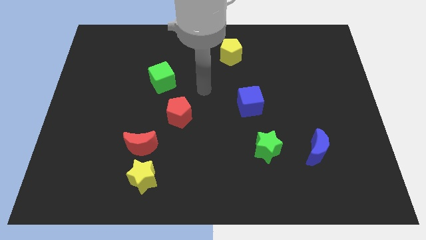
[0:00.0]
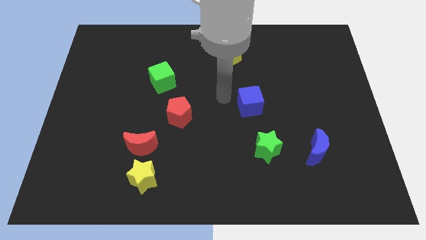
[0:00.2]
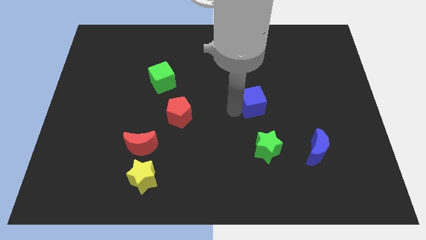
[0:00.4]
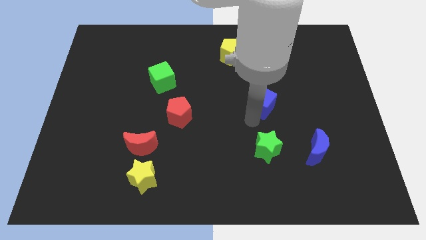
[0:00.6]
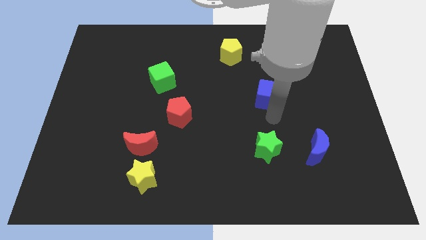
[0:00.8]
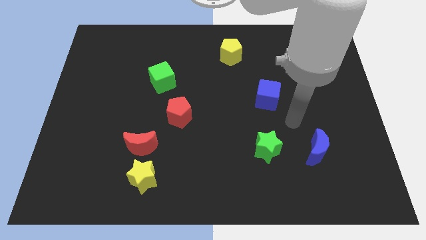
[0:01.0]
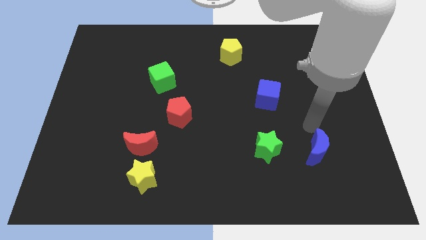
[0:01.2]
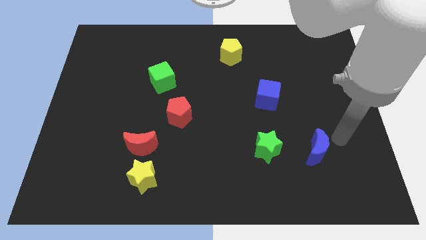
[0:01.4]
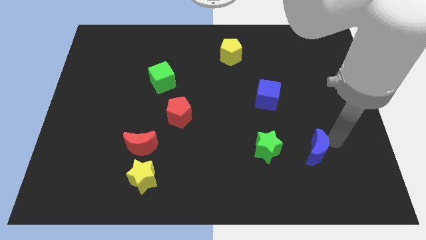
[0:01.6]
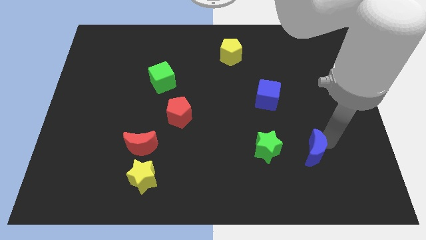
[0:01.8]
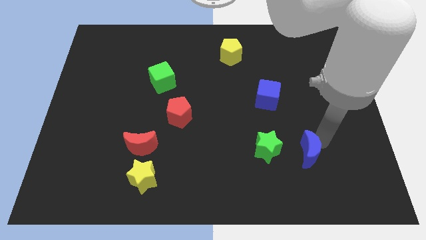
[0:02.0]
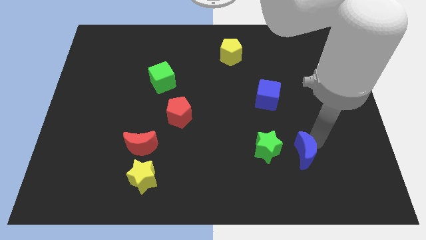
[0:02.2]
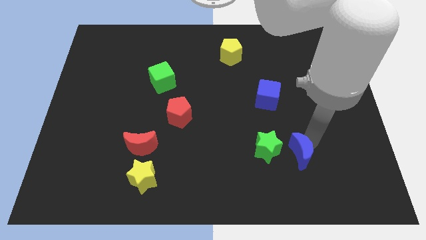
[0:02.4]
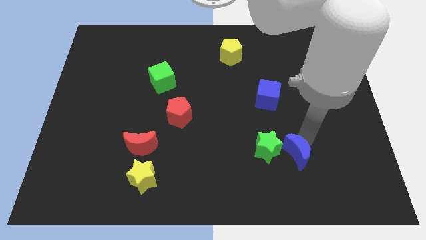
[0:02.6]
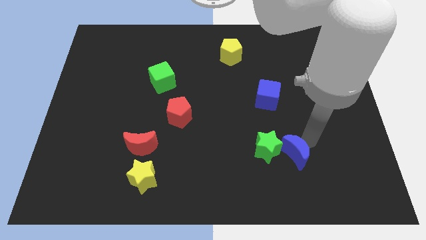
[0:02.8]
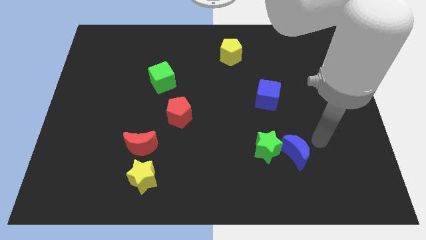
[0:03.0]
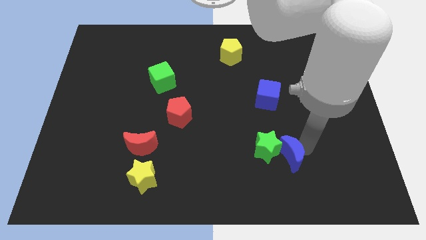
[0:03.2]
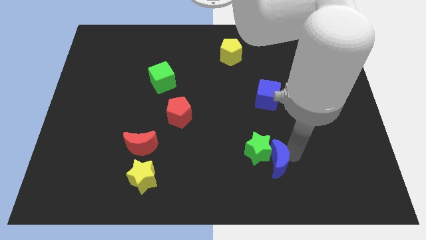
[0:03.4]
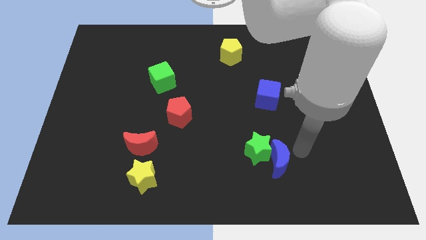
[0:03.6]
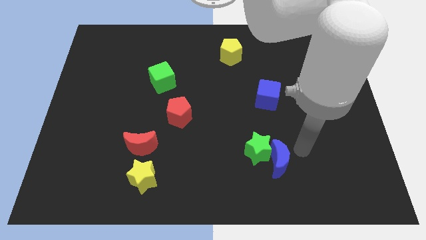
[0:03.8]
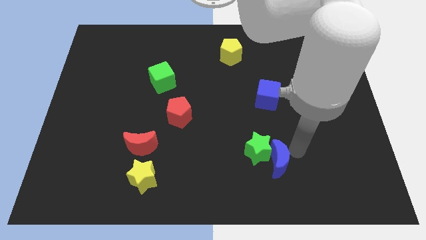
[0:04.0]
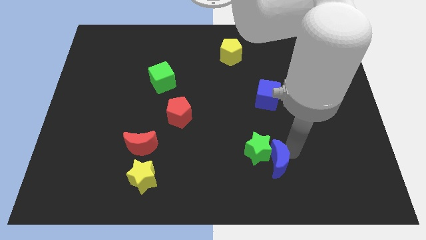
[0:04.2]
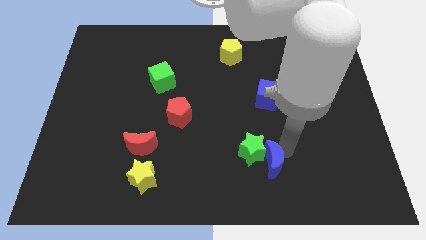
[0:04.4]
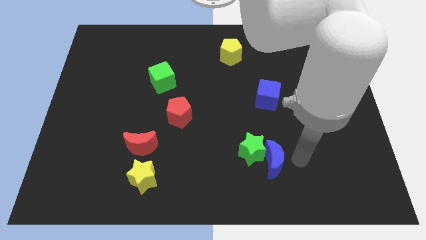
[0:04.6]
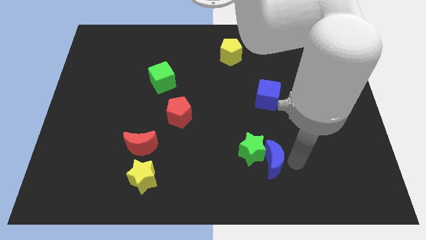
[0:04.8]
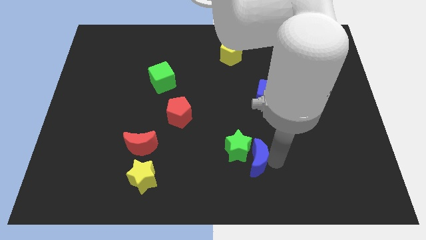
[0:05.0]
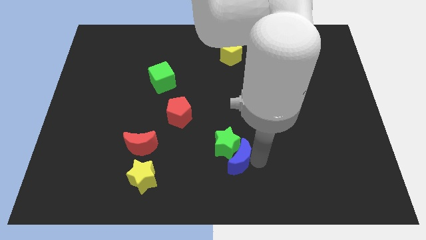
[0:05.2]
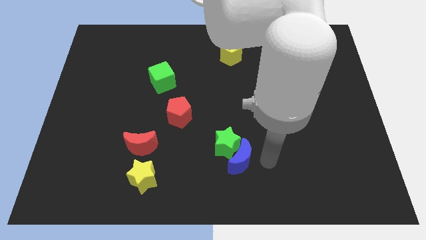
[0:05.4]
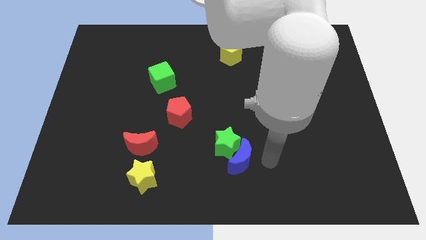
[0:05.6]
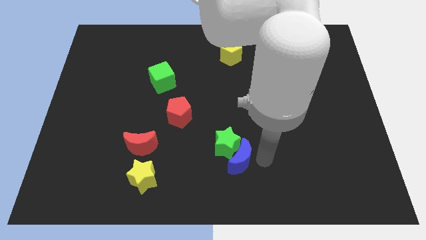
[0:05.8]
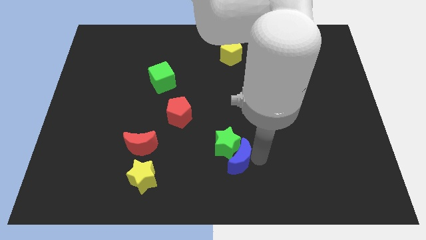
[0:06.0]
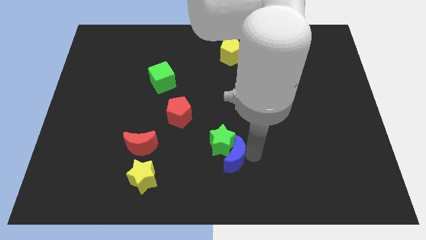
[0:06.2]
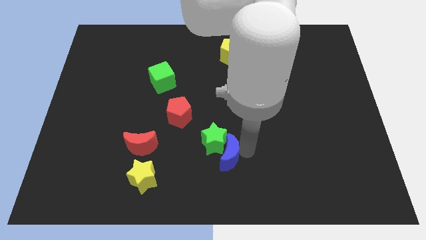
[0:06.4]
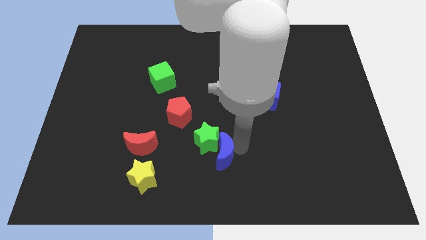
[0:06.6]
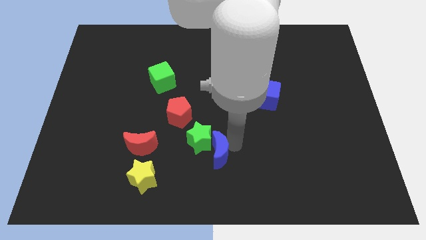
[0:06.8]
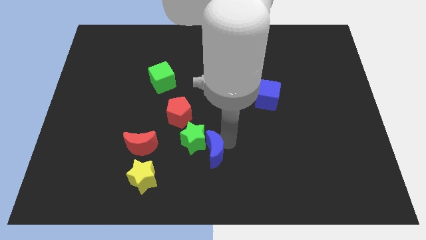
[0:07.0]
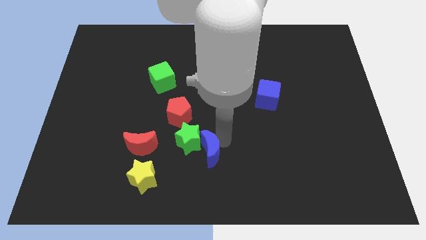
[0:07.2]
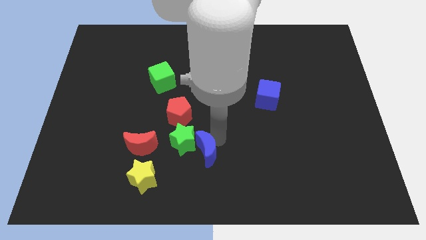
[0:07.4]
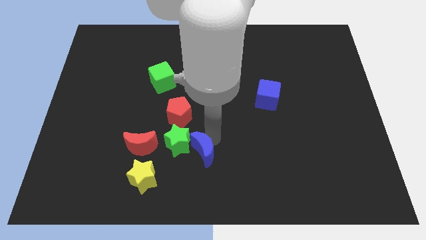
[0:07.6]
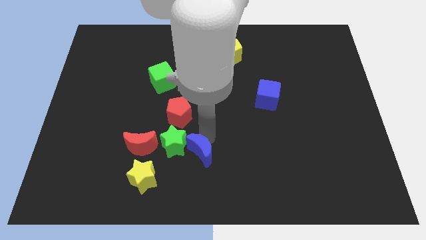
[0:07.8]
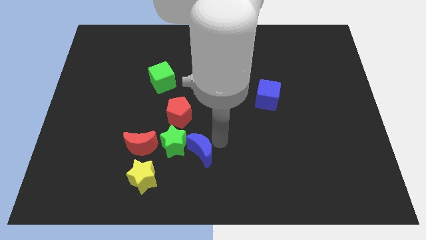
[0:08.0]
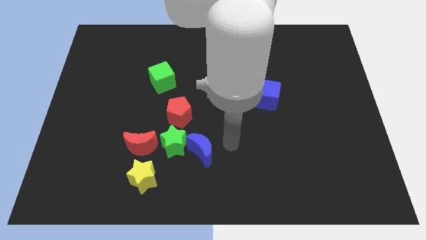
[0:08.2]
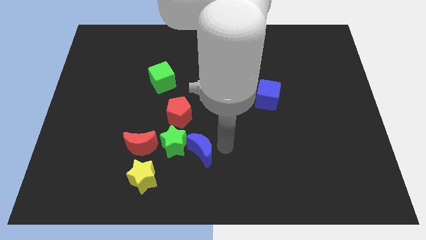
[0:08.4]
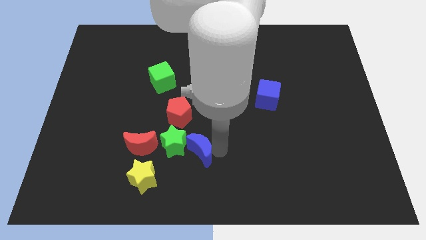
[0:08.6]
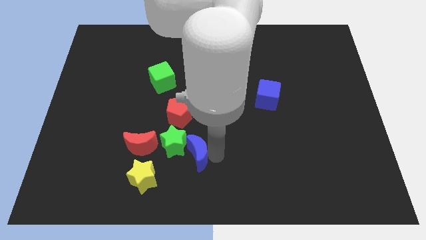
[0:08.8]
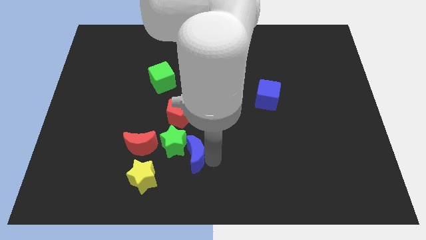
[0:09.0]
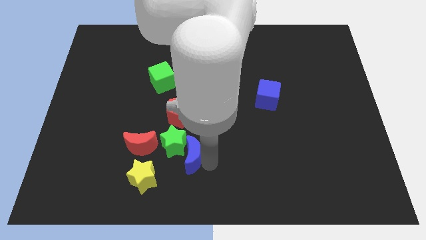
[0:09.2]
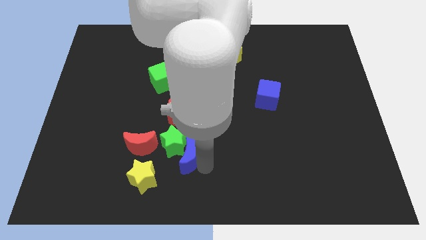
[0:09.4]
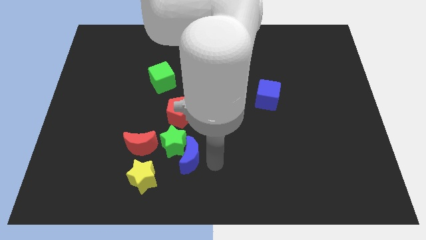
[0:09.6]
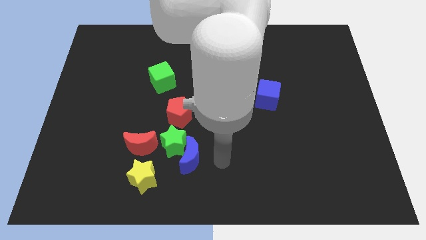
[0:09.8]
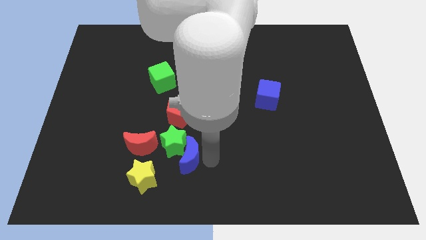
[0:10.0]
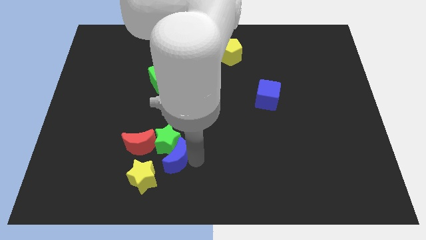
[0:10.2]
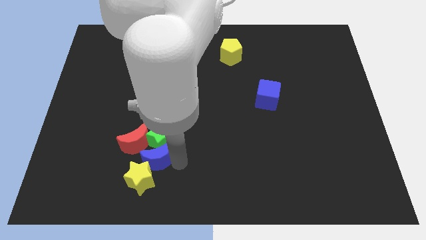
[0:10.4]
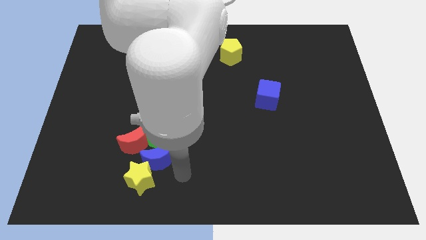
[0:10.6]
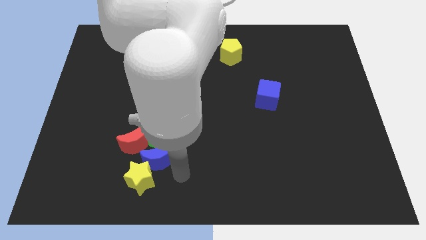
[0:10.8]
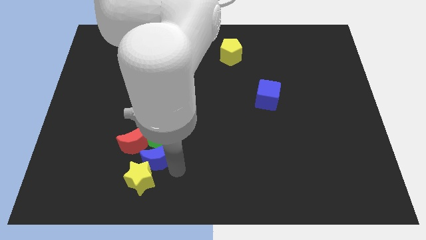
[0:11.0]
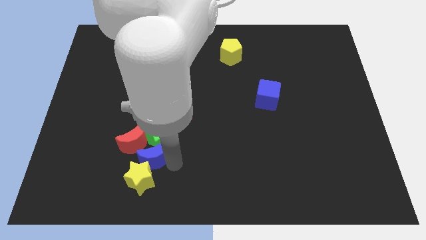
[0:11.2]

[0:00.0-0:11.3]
put the blue moon to the red moon

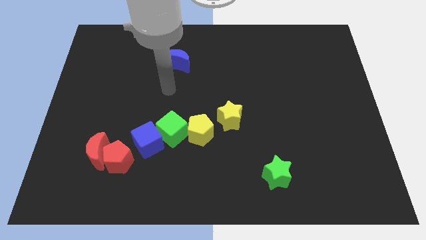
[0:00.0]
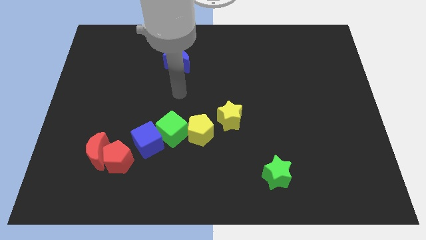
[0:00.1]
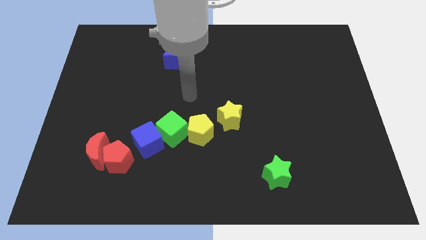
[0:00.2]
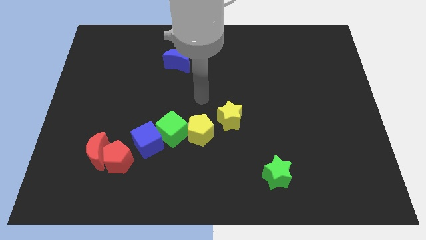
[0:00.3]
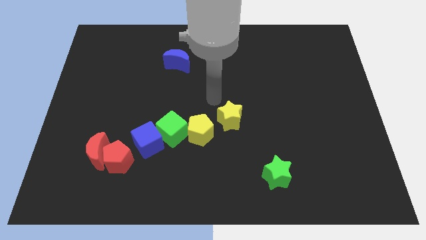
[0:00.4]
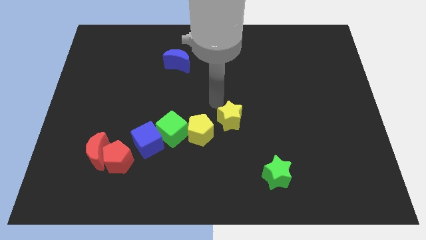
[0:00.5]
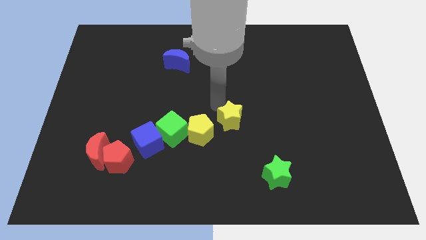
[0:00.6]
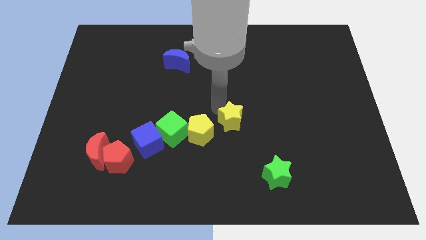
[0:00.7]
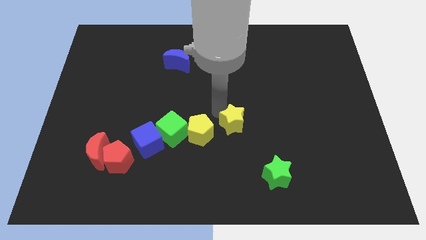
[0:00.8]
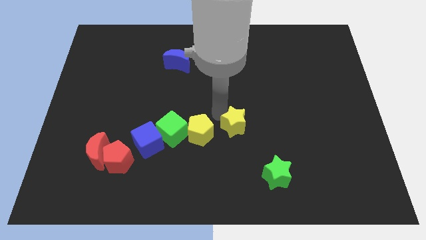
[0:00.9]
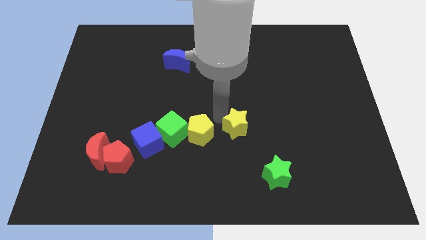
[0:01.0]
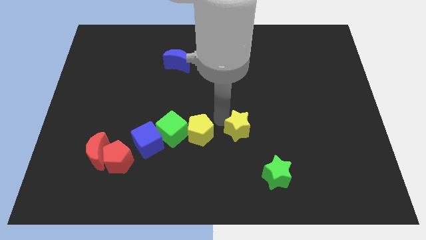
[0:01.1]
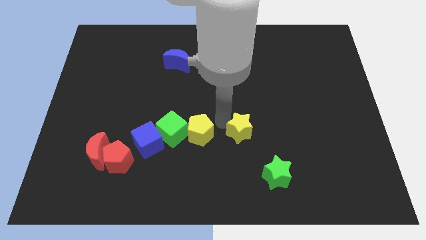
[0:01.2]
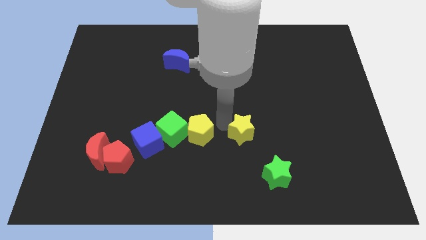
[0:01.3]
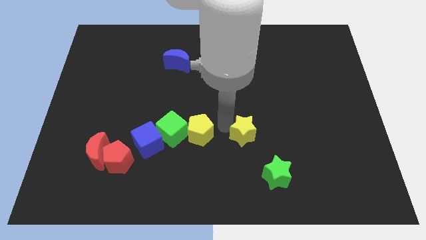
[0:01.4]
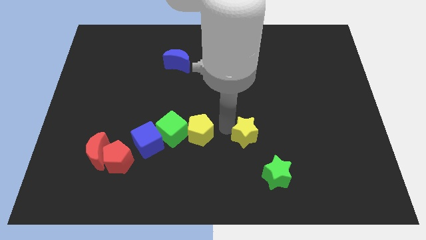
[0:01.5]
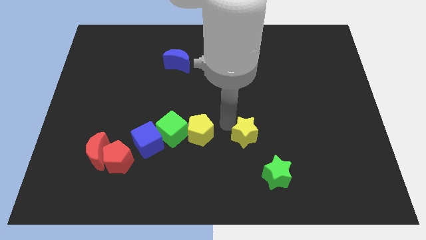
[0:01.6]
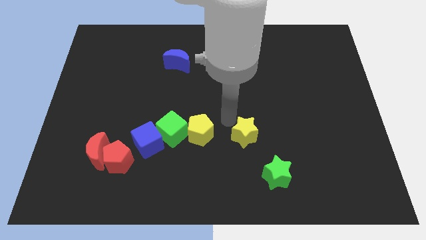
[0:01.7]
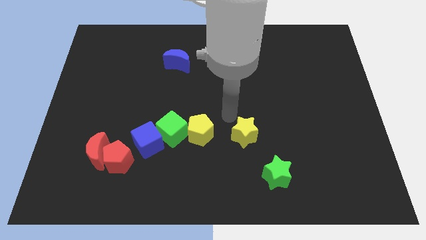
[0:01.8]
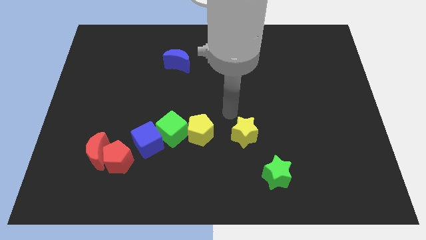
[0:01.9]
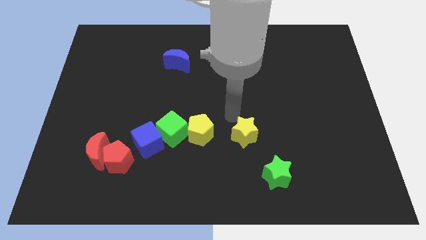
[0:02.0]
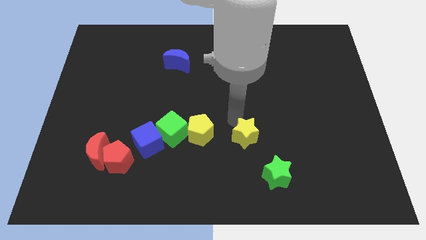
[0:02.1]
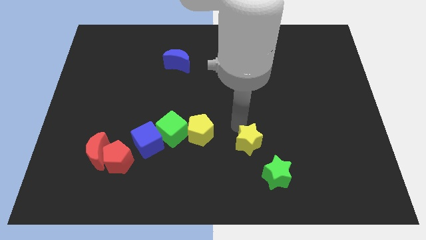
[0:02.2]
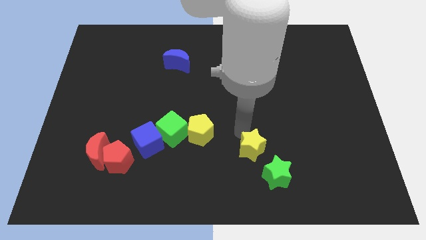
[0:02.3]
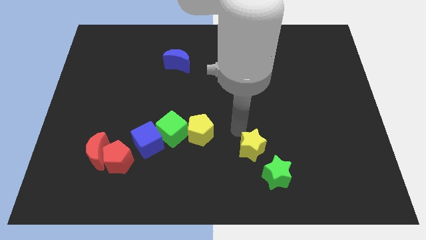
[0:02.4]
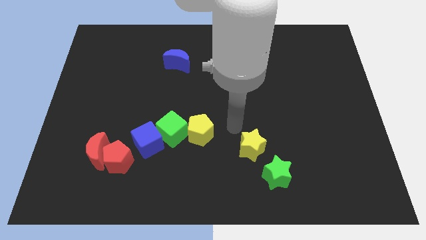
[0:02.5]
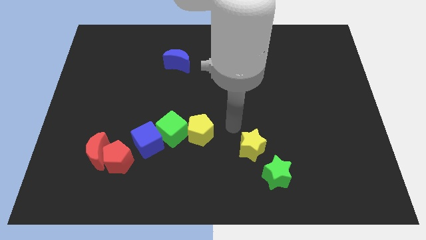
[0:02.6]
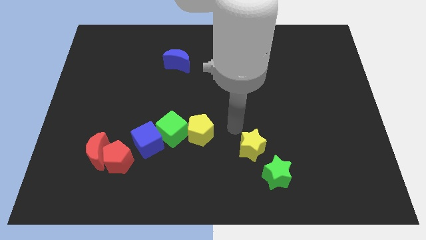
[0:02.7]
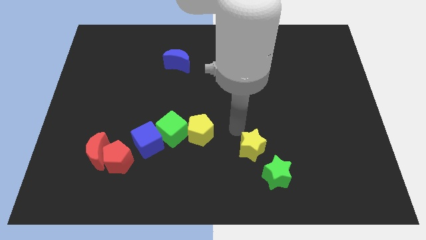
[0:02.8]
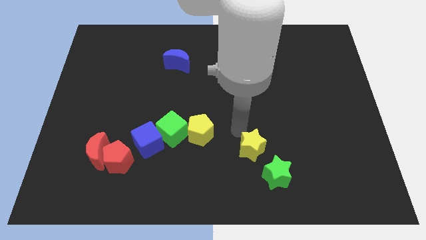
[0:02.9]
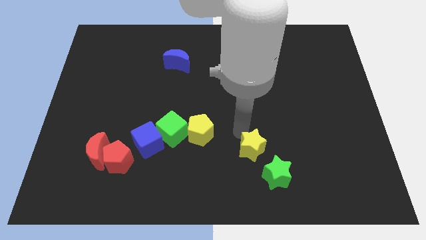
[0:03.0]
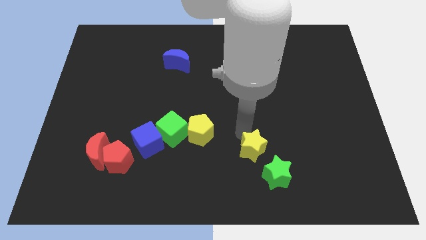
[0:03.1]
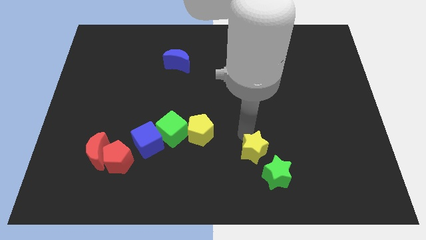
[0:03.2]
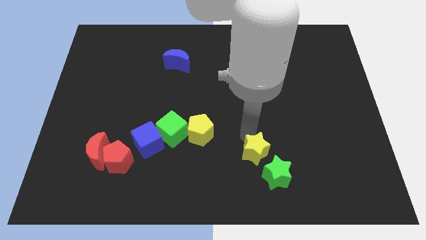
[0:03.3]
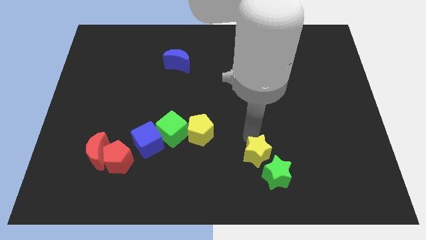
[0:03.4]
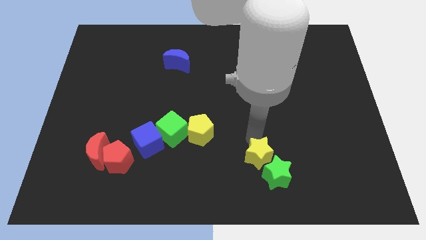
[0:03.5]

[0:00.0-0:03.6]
put the yellow star next to the green star
